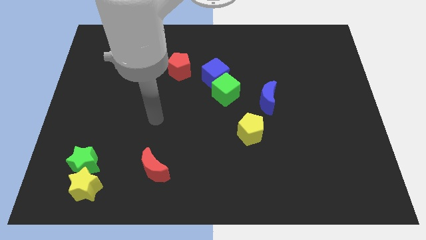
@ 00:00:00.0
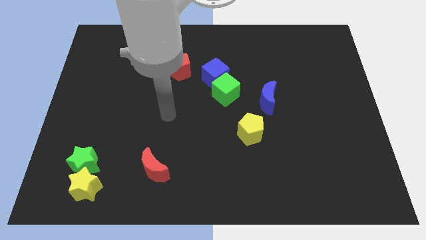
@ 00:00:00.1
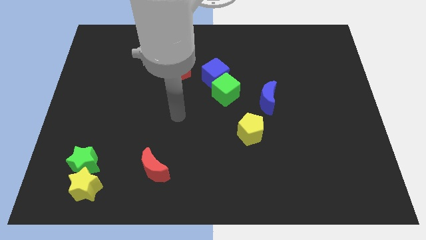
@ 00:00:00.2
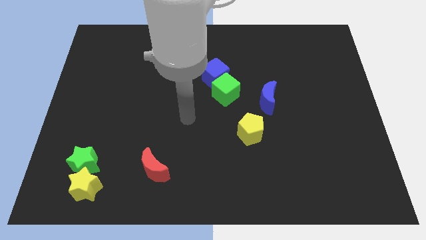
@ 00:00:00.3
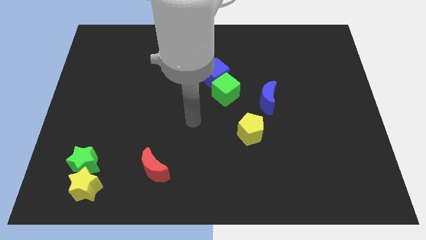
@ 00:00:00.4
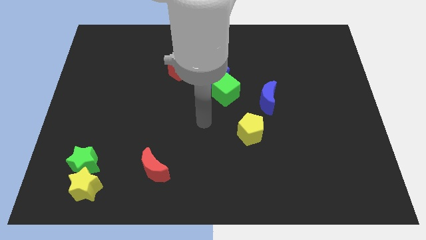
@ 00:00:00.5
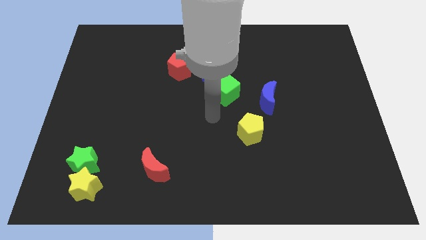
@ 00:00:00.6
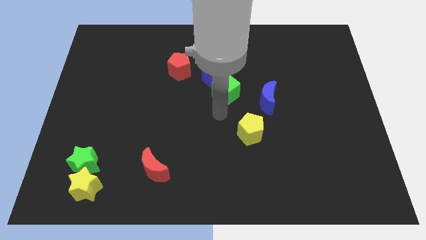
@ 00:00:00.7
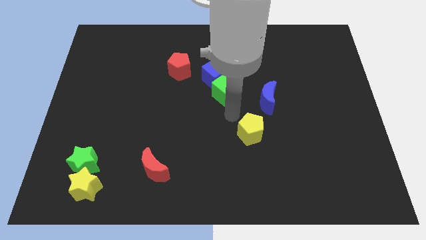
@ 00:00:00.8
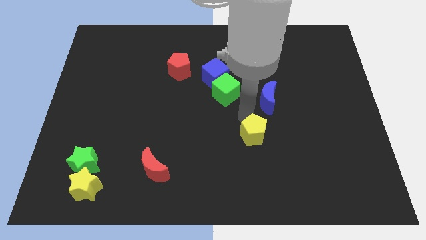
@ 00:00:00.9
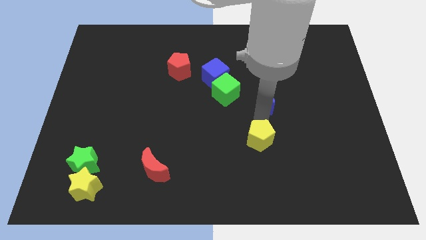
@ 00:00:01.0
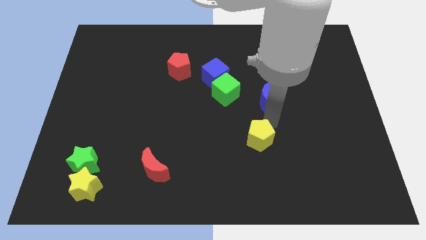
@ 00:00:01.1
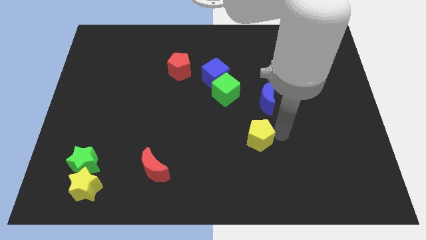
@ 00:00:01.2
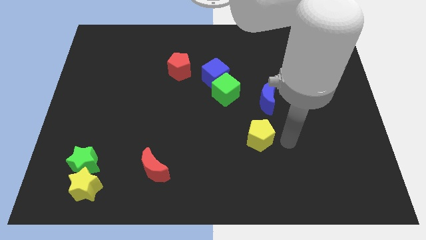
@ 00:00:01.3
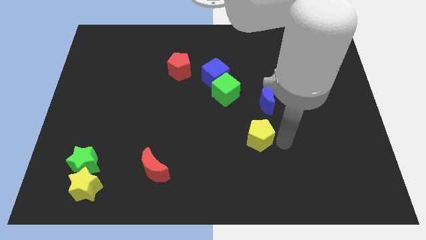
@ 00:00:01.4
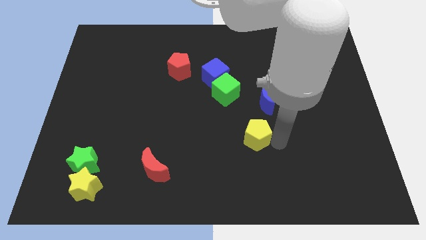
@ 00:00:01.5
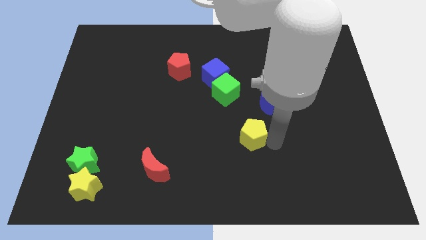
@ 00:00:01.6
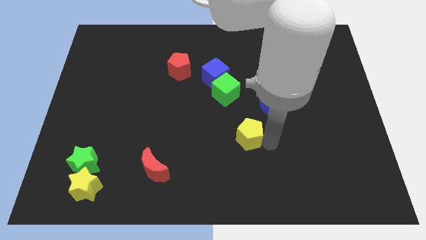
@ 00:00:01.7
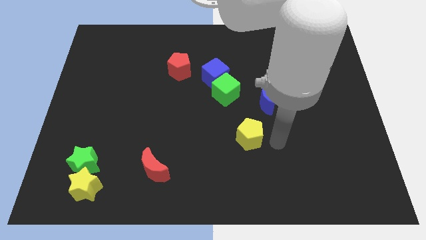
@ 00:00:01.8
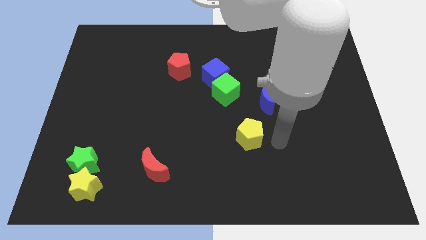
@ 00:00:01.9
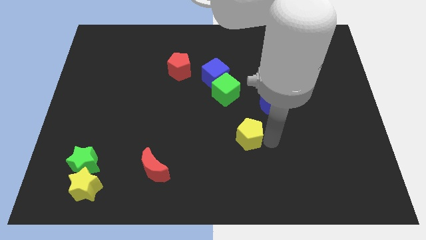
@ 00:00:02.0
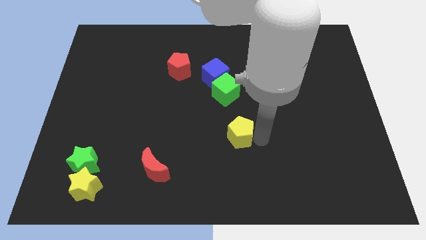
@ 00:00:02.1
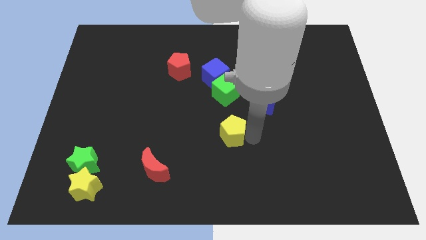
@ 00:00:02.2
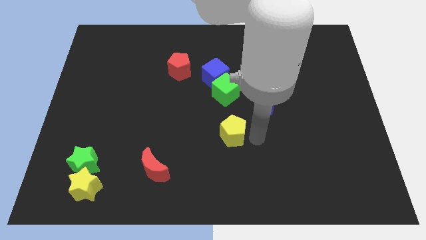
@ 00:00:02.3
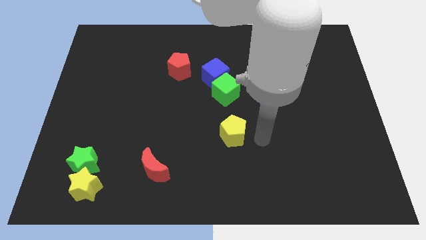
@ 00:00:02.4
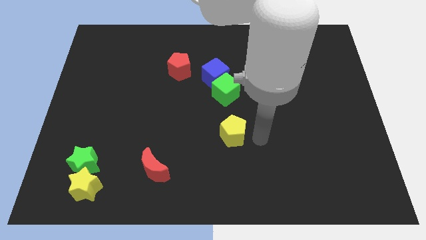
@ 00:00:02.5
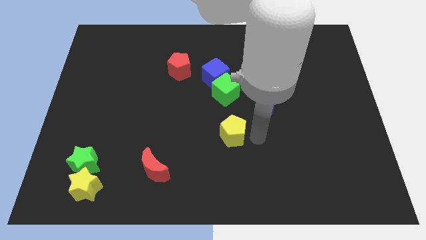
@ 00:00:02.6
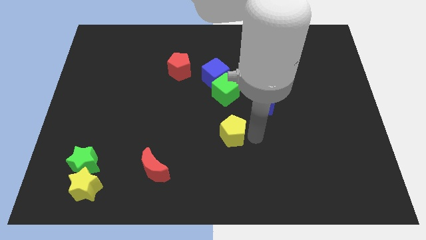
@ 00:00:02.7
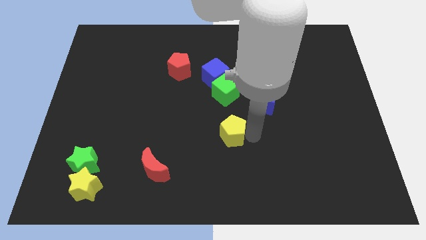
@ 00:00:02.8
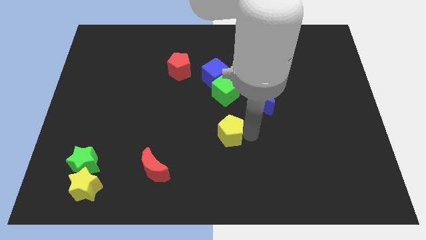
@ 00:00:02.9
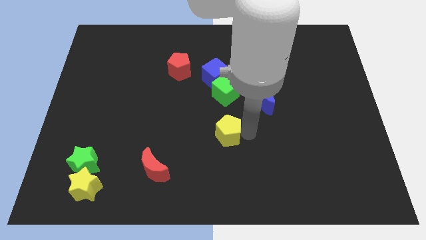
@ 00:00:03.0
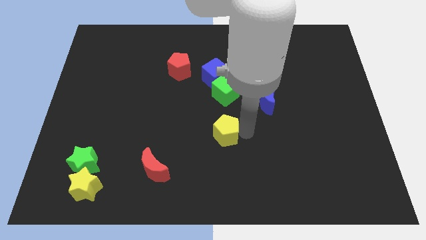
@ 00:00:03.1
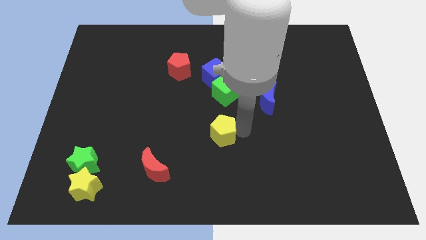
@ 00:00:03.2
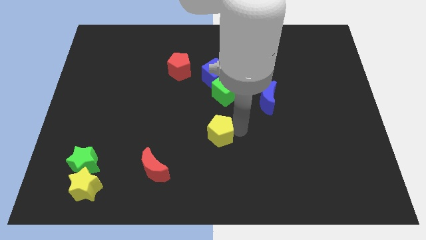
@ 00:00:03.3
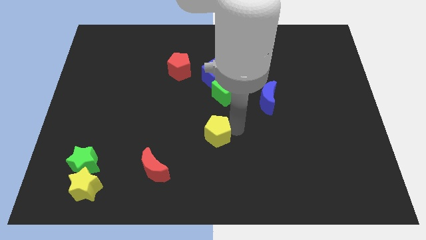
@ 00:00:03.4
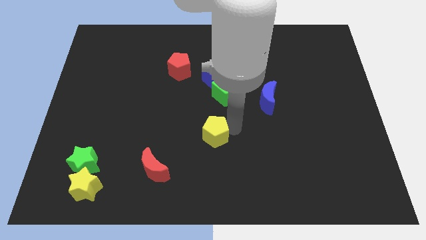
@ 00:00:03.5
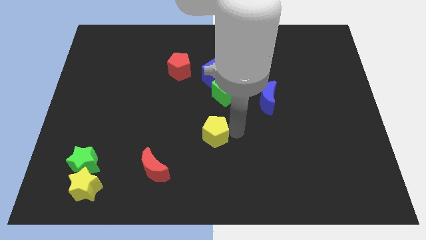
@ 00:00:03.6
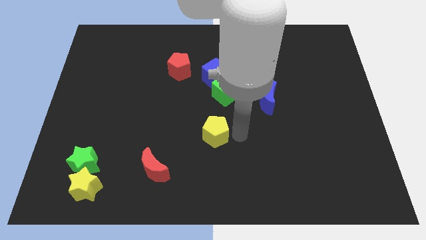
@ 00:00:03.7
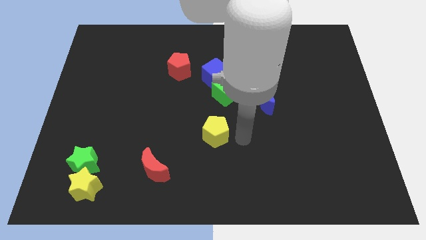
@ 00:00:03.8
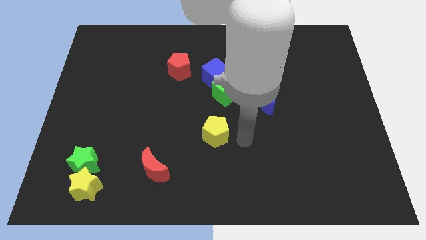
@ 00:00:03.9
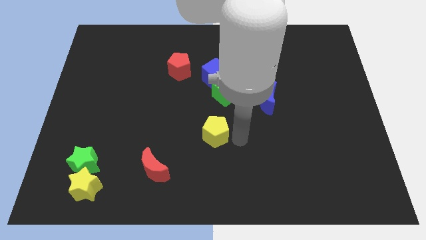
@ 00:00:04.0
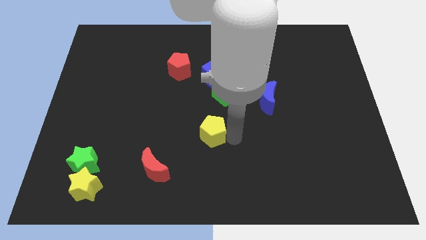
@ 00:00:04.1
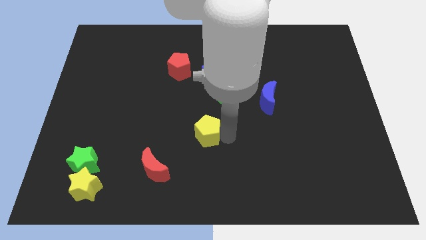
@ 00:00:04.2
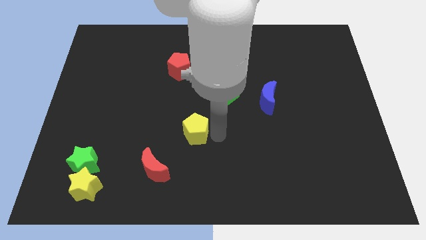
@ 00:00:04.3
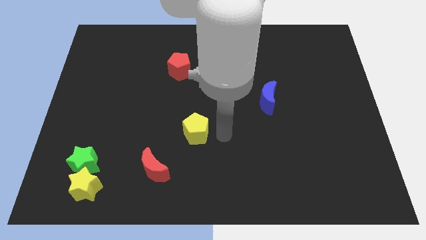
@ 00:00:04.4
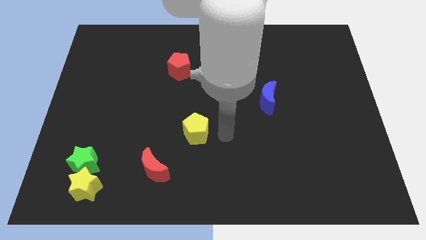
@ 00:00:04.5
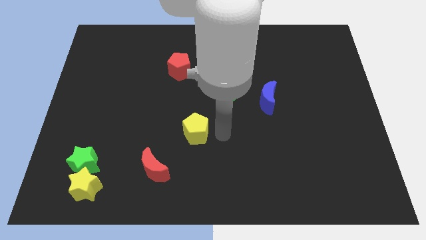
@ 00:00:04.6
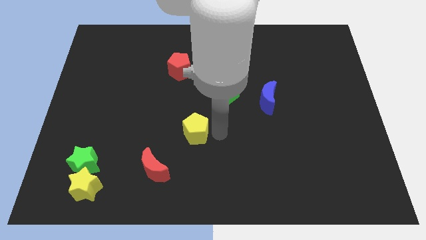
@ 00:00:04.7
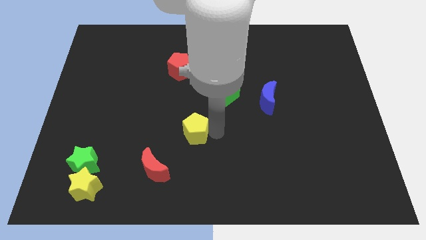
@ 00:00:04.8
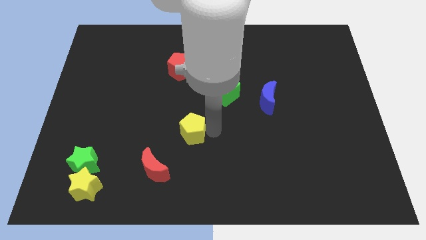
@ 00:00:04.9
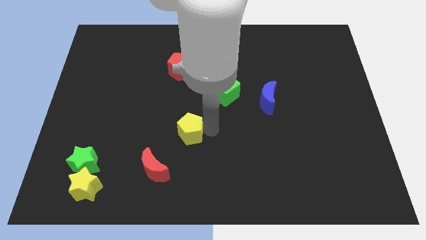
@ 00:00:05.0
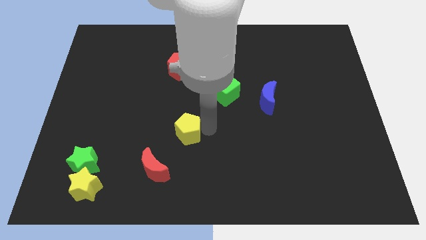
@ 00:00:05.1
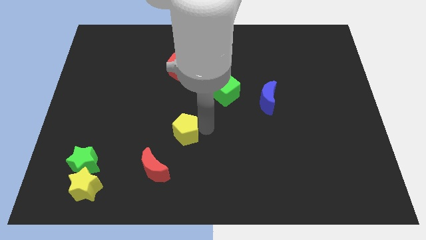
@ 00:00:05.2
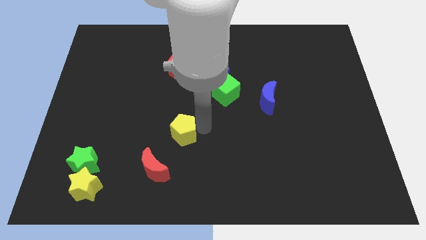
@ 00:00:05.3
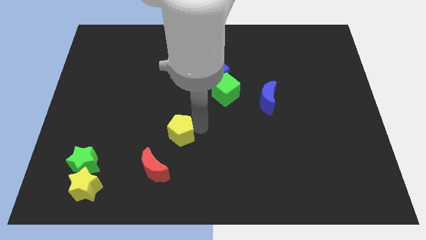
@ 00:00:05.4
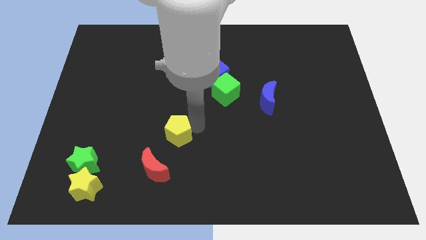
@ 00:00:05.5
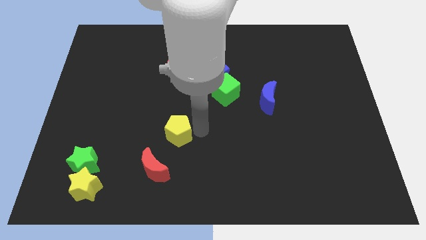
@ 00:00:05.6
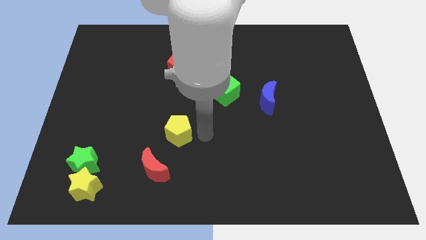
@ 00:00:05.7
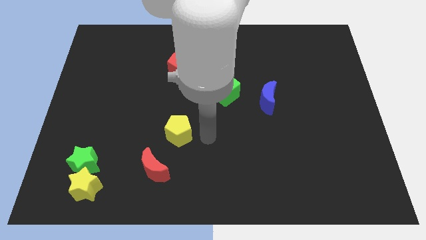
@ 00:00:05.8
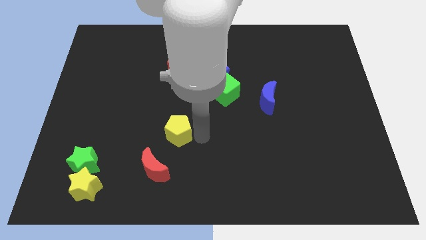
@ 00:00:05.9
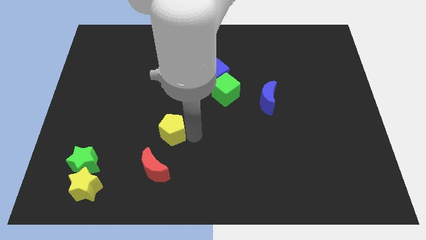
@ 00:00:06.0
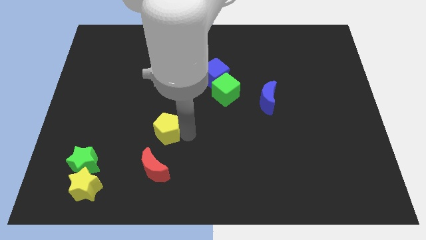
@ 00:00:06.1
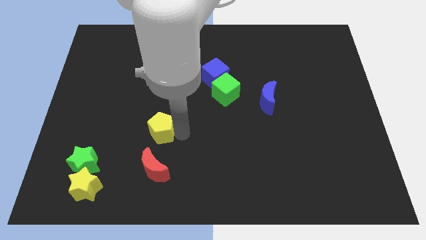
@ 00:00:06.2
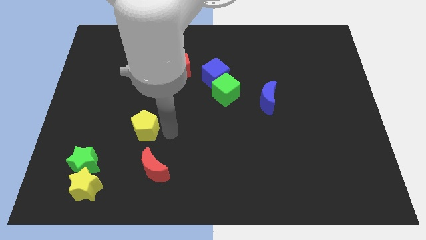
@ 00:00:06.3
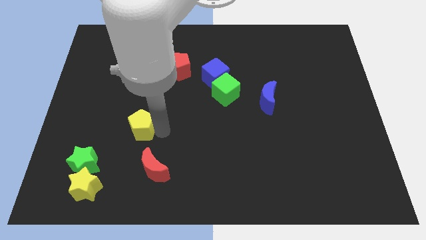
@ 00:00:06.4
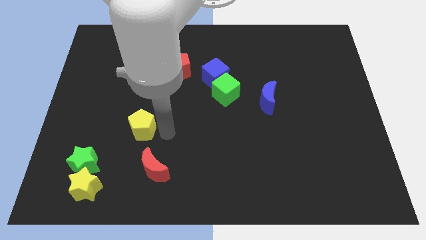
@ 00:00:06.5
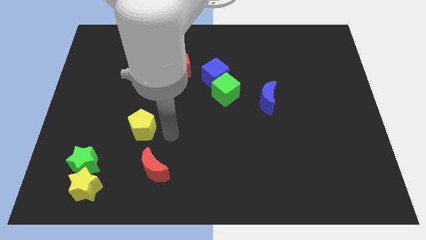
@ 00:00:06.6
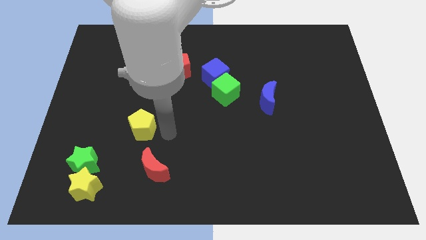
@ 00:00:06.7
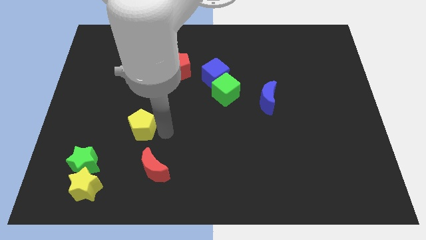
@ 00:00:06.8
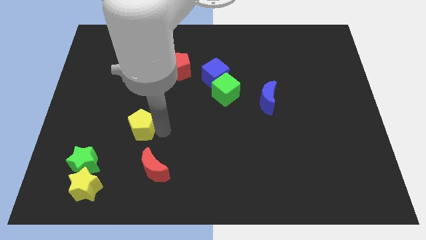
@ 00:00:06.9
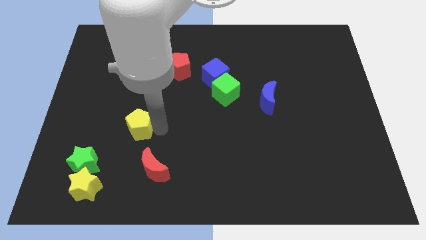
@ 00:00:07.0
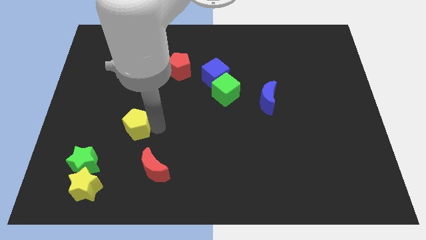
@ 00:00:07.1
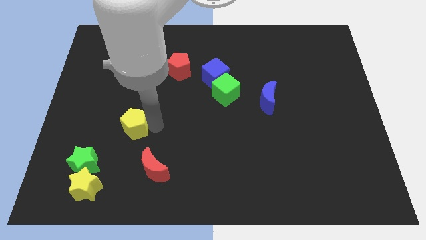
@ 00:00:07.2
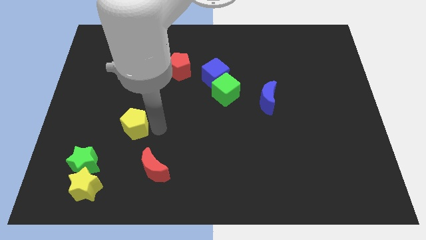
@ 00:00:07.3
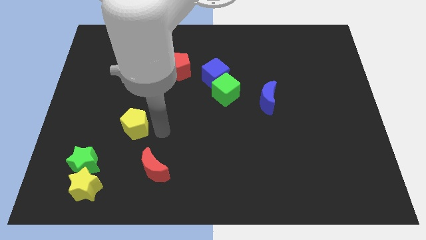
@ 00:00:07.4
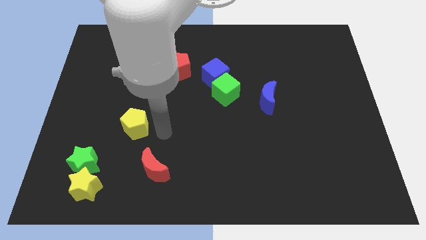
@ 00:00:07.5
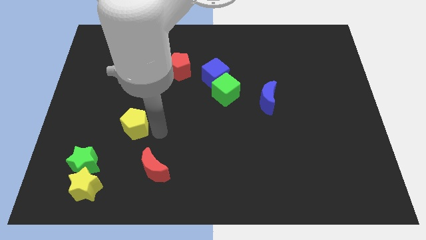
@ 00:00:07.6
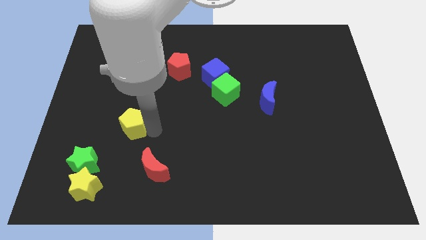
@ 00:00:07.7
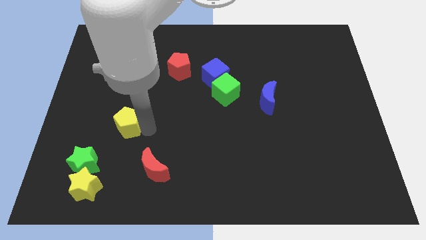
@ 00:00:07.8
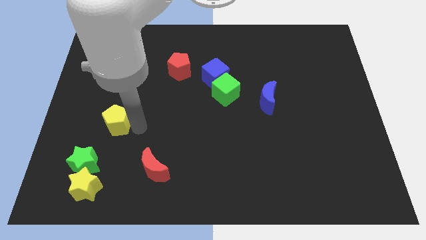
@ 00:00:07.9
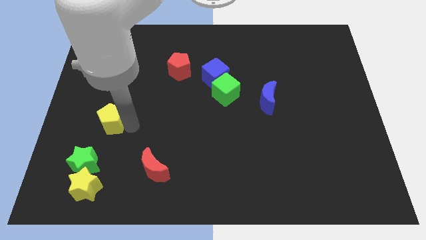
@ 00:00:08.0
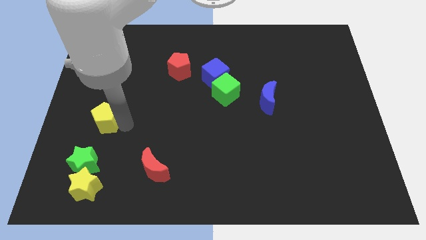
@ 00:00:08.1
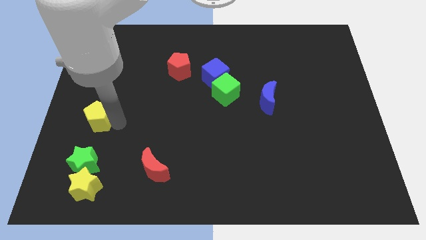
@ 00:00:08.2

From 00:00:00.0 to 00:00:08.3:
move the yellow pentagon to the left side
